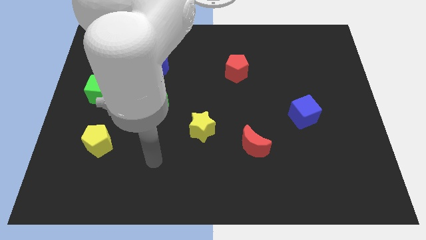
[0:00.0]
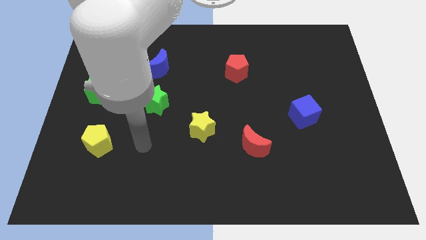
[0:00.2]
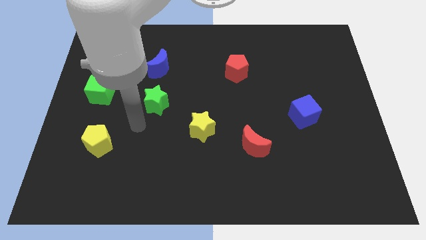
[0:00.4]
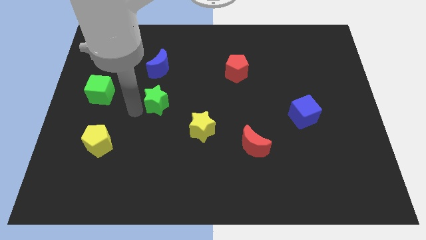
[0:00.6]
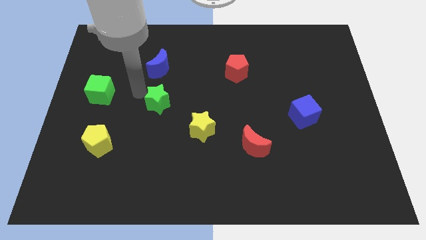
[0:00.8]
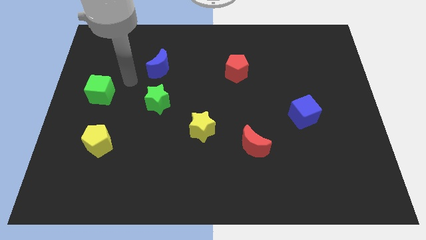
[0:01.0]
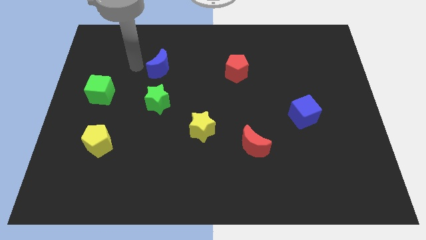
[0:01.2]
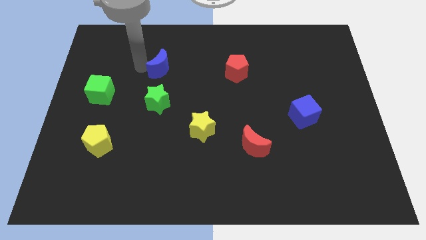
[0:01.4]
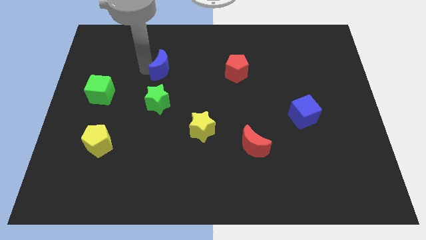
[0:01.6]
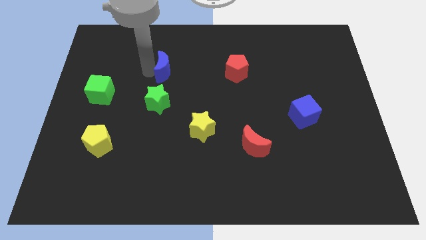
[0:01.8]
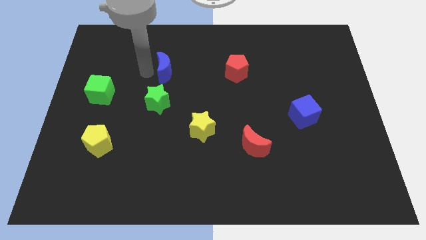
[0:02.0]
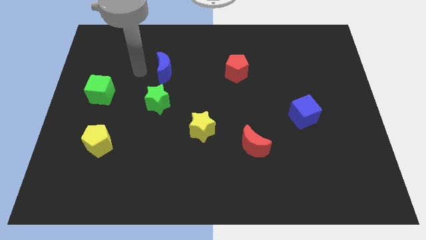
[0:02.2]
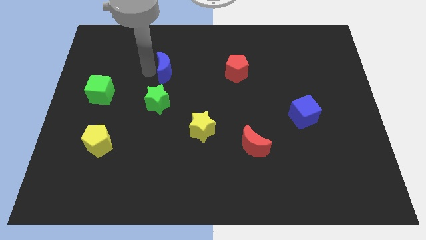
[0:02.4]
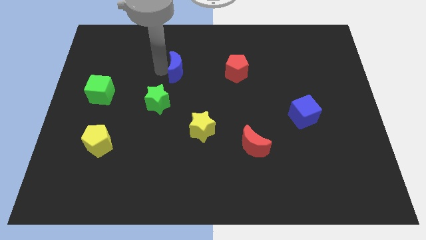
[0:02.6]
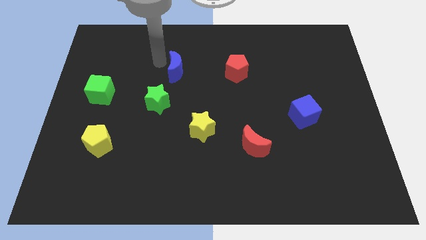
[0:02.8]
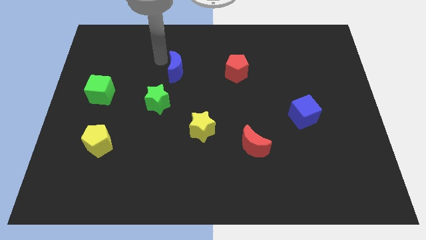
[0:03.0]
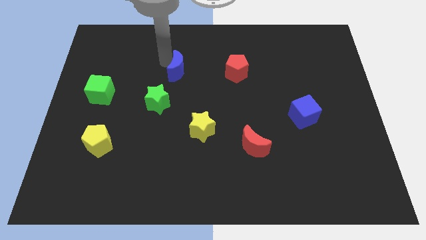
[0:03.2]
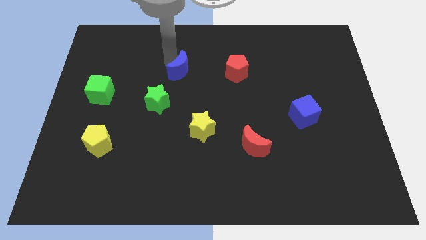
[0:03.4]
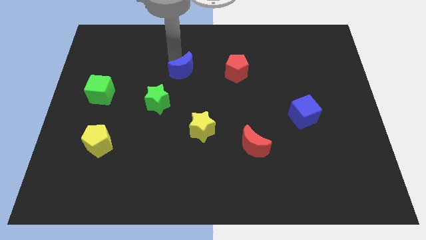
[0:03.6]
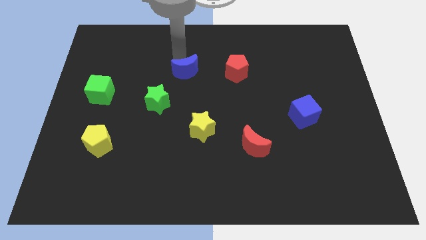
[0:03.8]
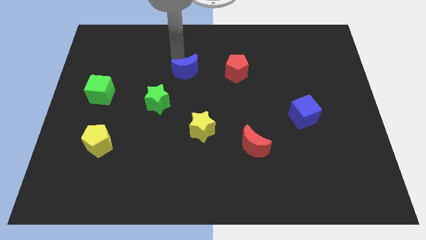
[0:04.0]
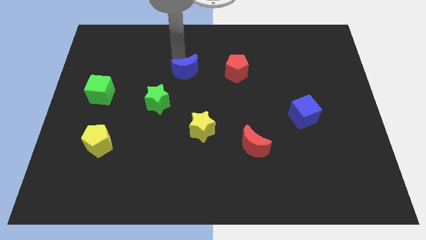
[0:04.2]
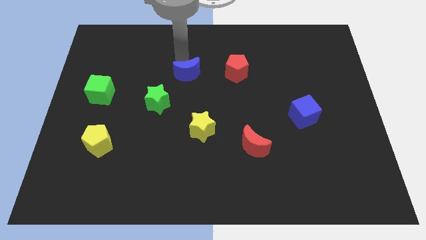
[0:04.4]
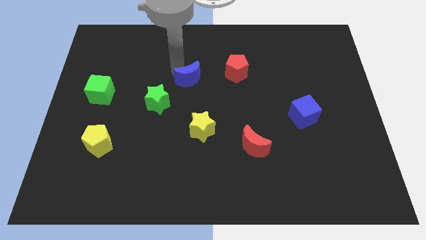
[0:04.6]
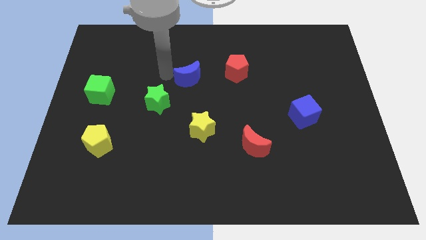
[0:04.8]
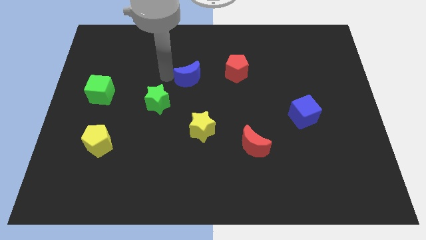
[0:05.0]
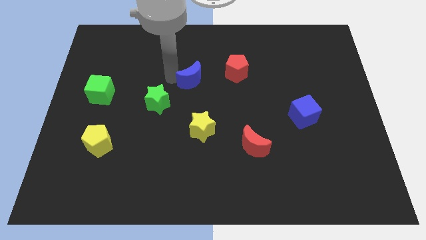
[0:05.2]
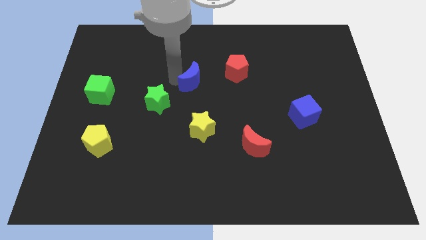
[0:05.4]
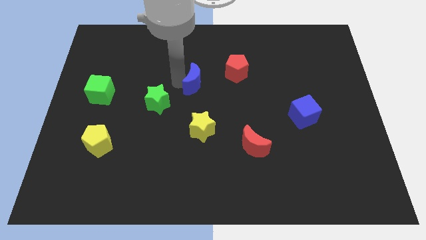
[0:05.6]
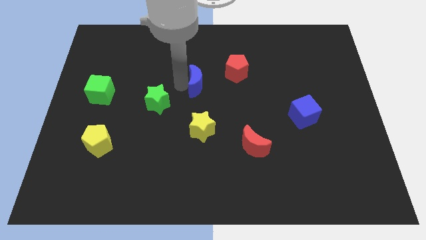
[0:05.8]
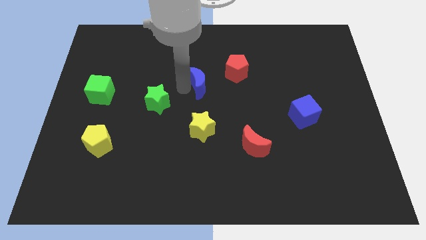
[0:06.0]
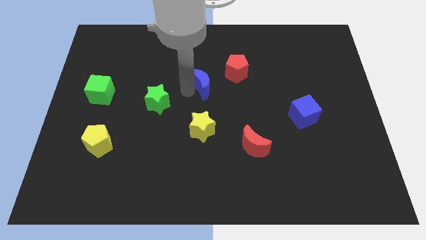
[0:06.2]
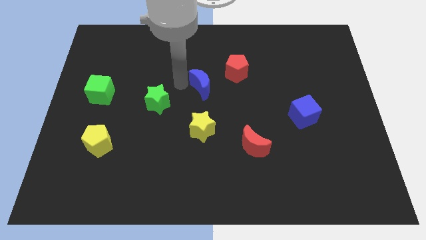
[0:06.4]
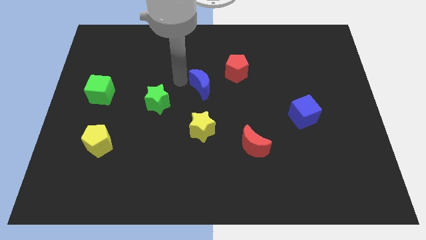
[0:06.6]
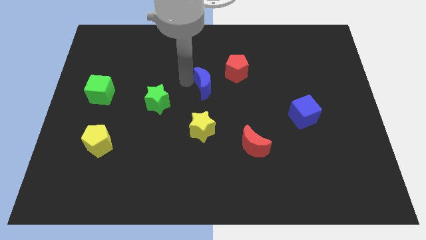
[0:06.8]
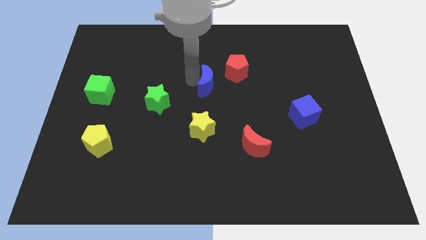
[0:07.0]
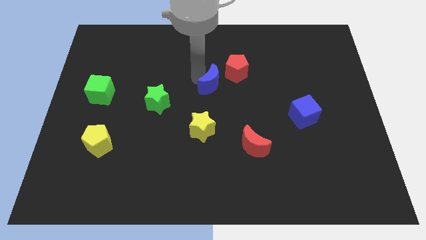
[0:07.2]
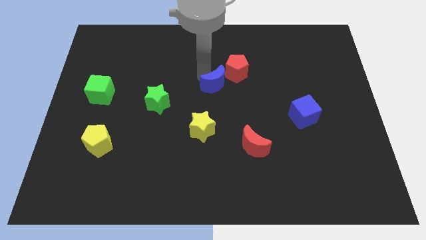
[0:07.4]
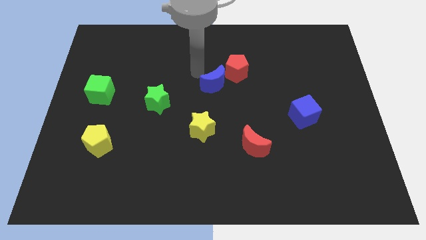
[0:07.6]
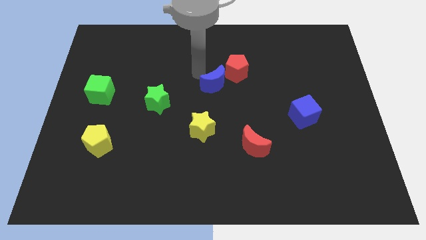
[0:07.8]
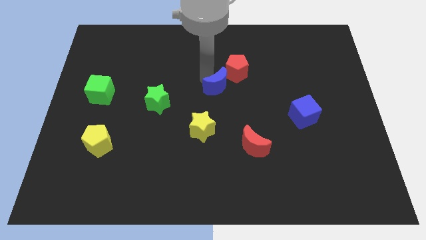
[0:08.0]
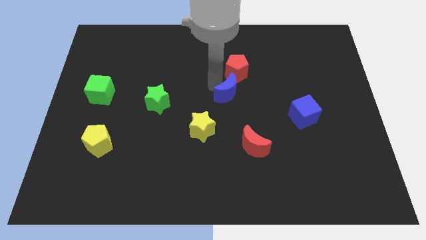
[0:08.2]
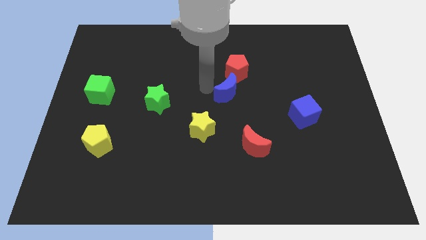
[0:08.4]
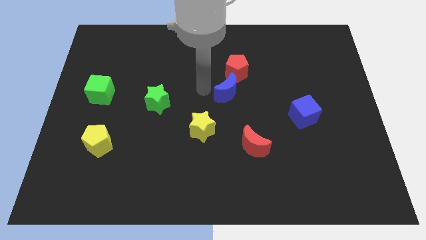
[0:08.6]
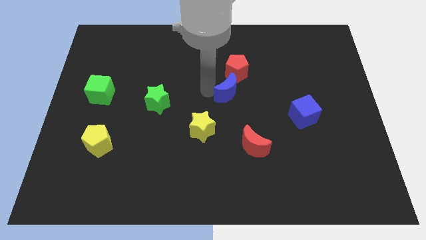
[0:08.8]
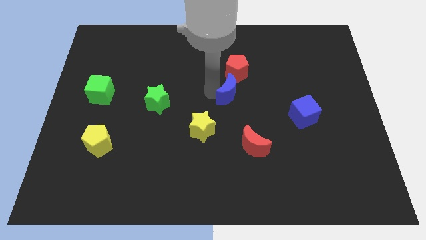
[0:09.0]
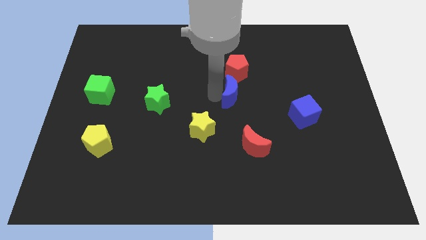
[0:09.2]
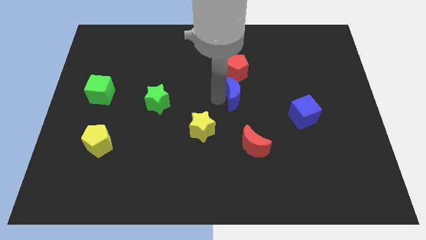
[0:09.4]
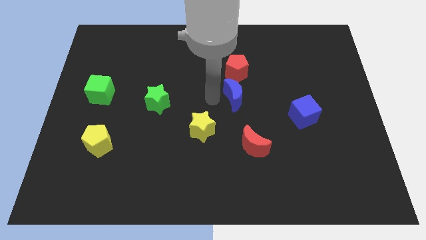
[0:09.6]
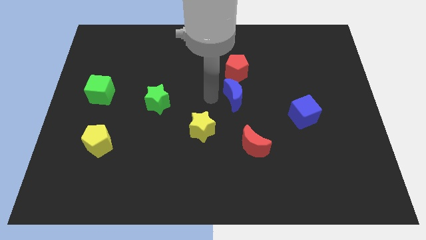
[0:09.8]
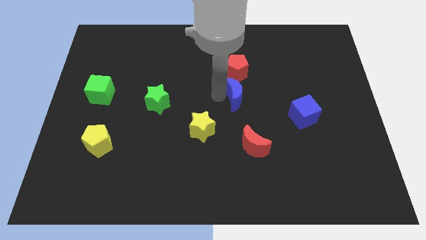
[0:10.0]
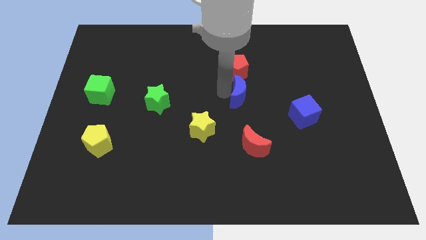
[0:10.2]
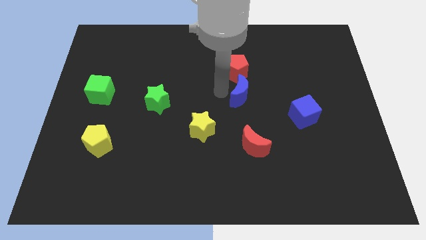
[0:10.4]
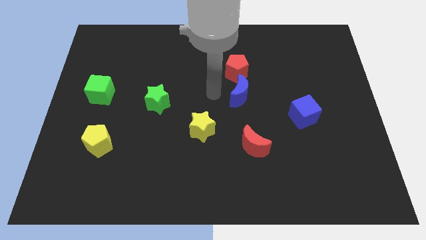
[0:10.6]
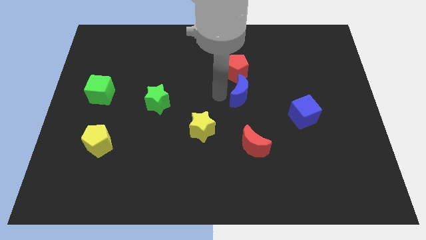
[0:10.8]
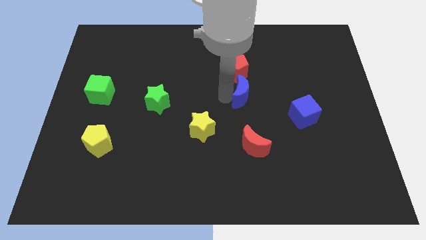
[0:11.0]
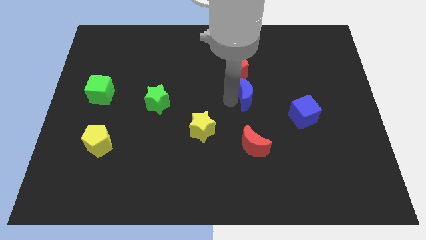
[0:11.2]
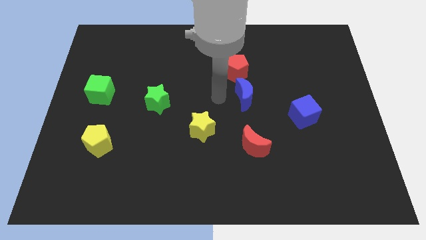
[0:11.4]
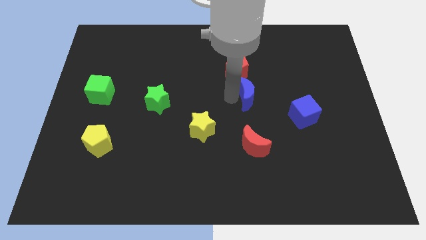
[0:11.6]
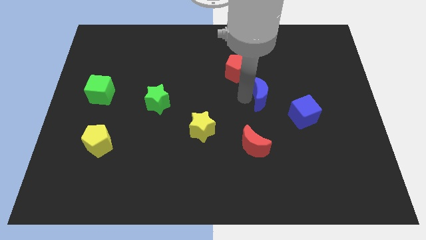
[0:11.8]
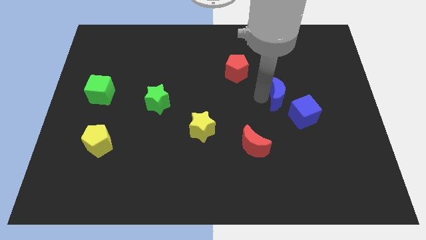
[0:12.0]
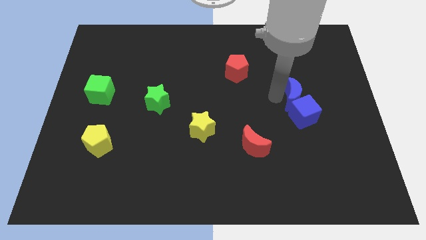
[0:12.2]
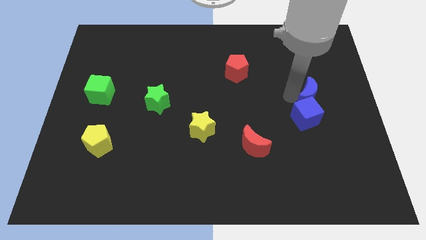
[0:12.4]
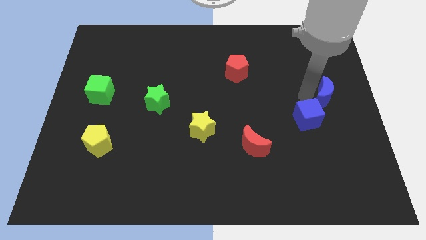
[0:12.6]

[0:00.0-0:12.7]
slide the blue moon to the right side
